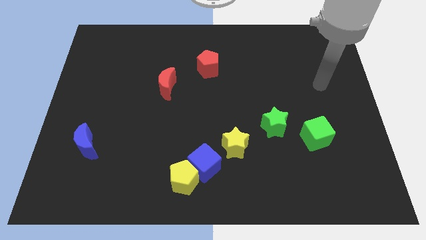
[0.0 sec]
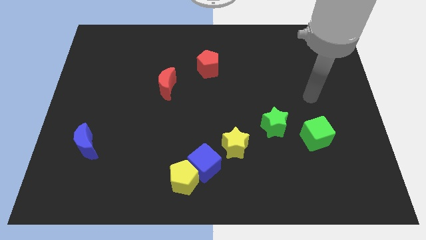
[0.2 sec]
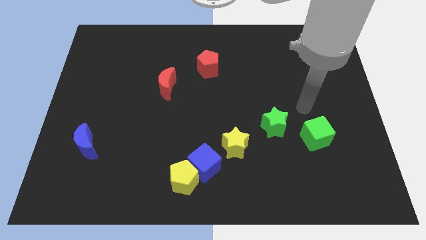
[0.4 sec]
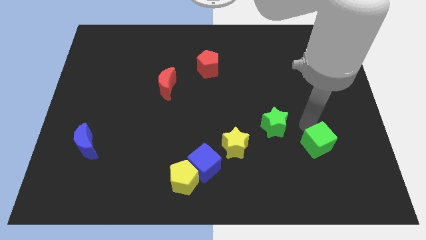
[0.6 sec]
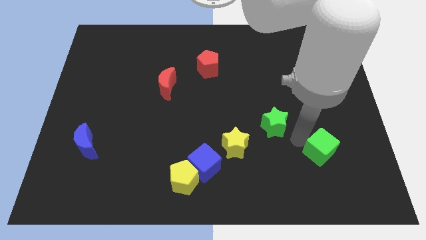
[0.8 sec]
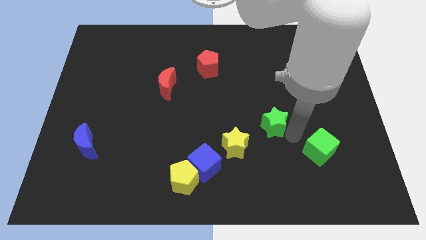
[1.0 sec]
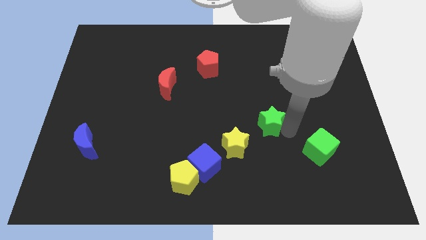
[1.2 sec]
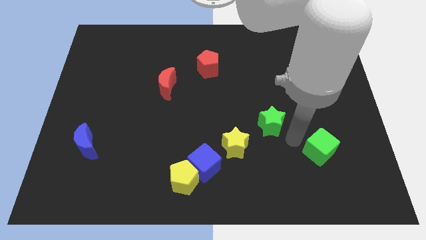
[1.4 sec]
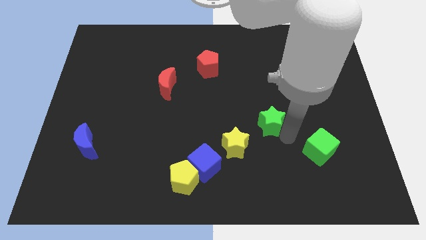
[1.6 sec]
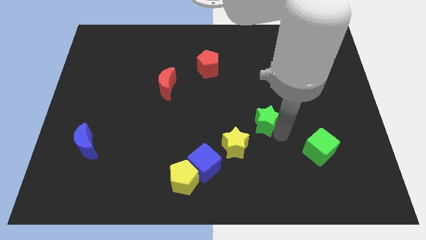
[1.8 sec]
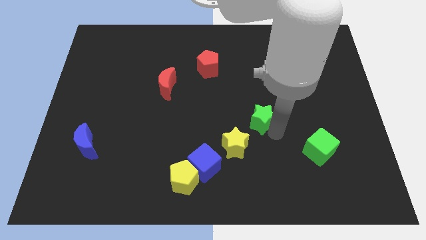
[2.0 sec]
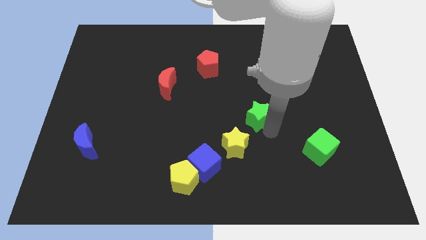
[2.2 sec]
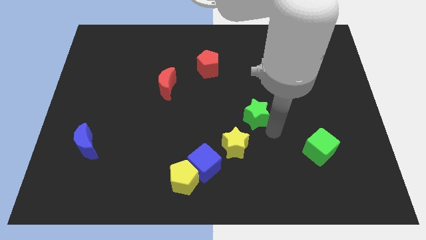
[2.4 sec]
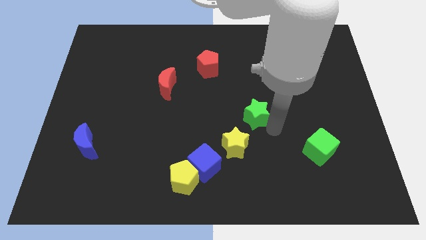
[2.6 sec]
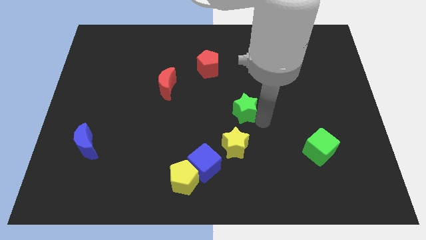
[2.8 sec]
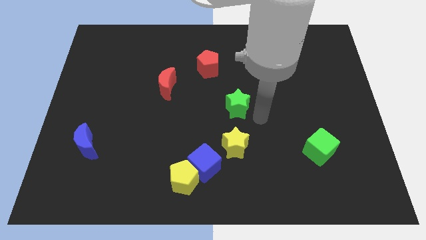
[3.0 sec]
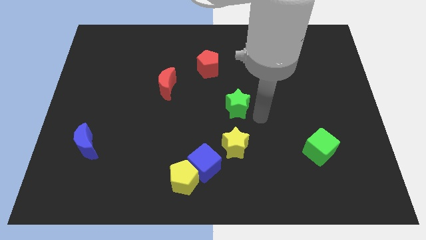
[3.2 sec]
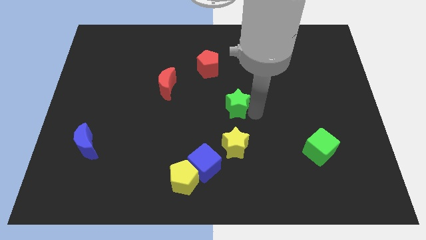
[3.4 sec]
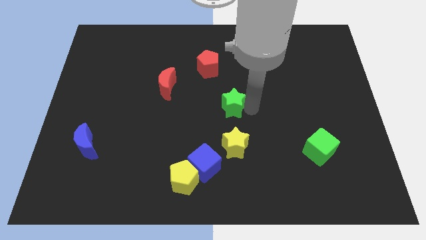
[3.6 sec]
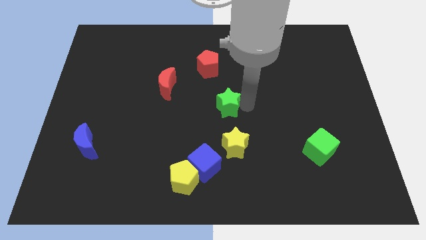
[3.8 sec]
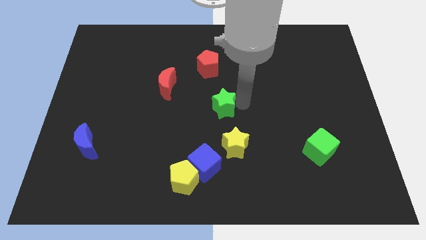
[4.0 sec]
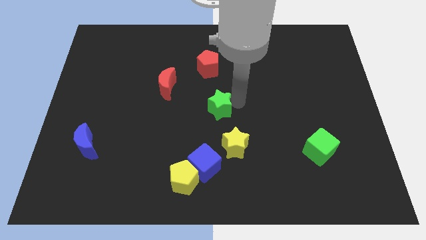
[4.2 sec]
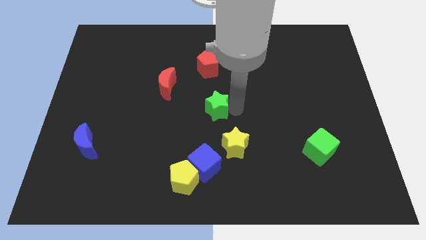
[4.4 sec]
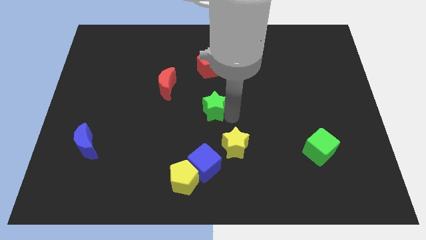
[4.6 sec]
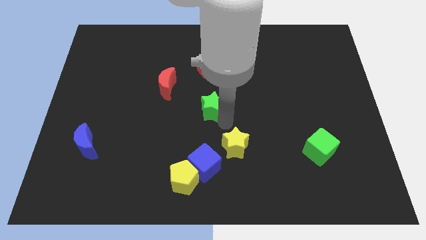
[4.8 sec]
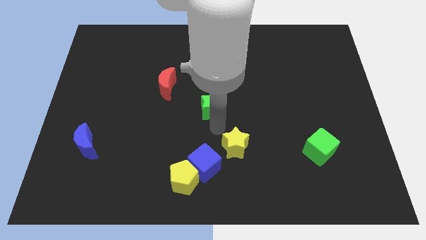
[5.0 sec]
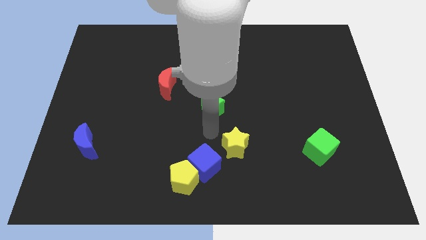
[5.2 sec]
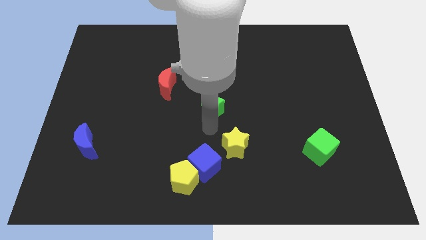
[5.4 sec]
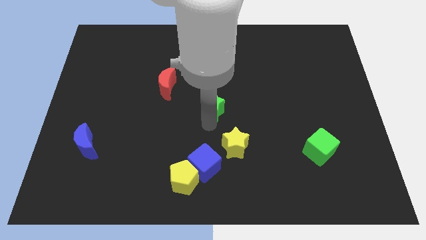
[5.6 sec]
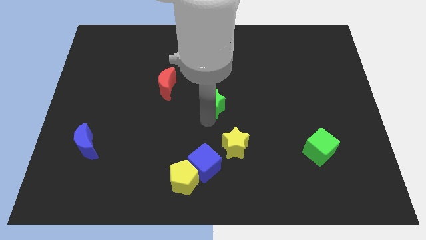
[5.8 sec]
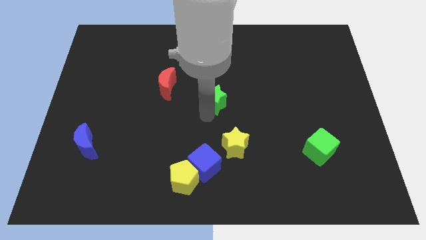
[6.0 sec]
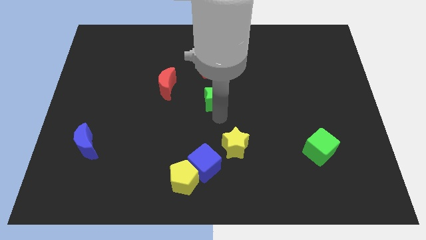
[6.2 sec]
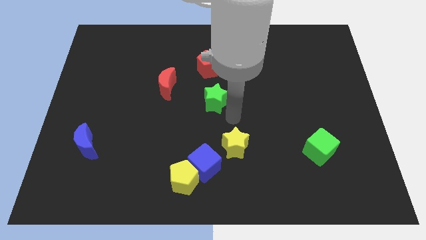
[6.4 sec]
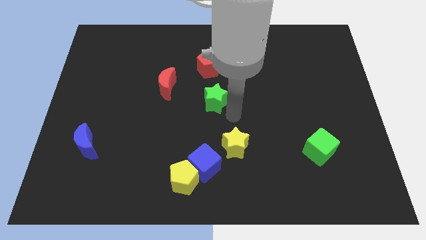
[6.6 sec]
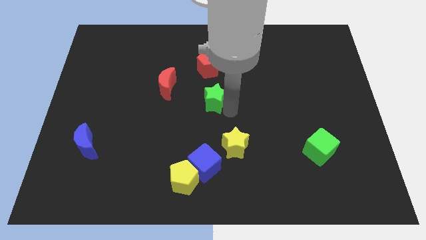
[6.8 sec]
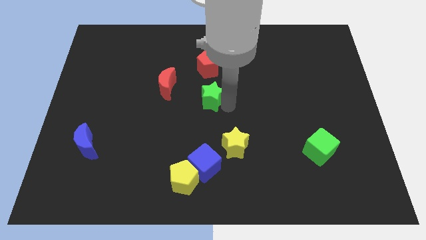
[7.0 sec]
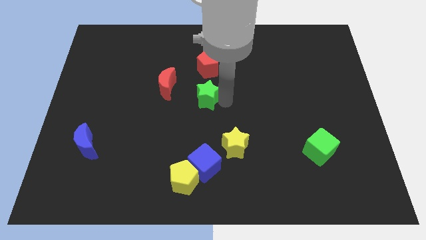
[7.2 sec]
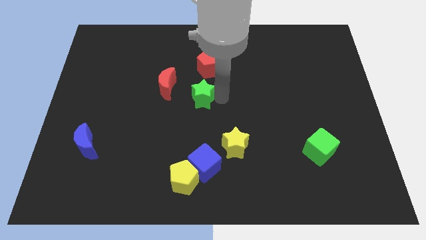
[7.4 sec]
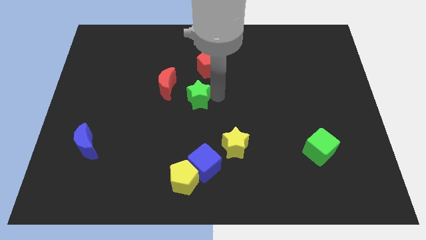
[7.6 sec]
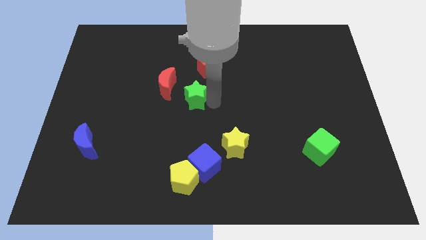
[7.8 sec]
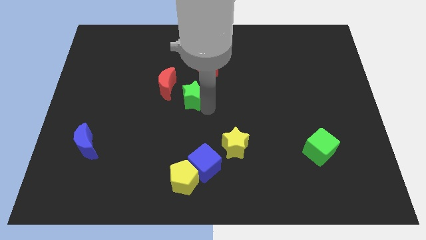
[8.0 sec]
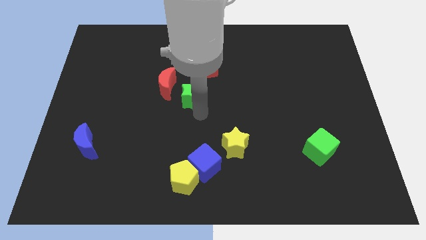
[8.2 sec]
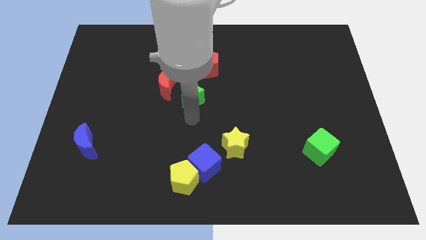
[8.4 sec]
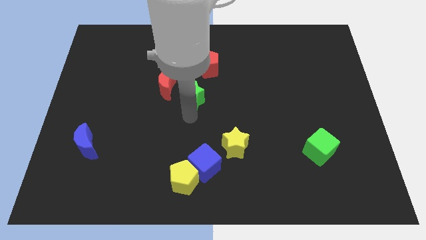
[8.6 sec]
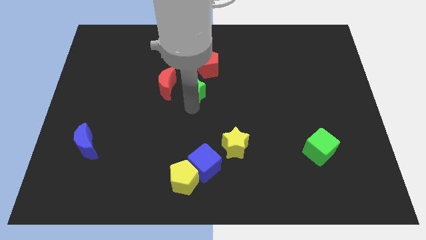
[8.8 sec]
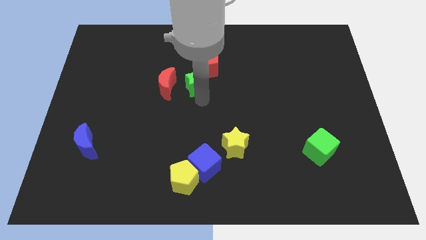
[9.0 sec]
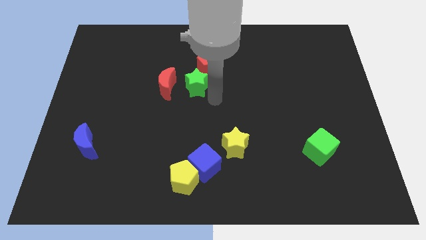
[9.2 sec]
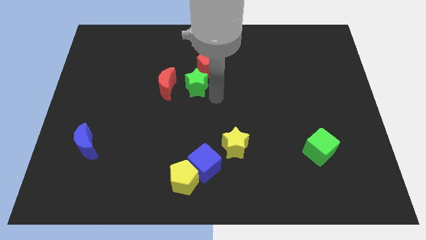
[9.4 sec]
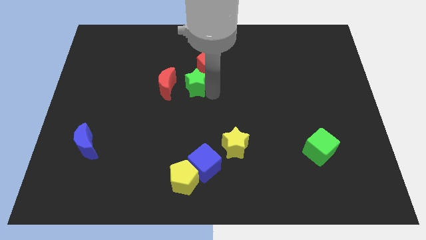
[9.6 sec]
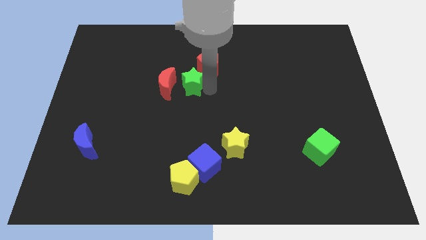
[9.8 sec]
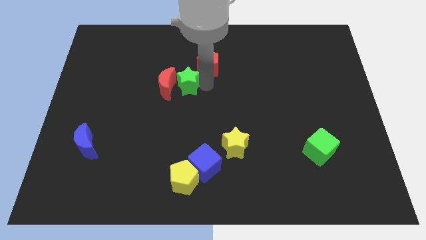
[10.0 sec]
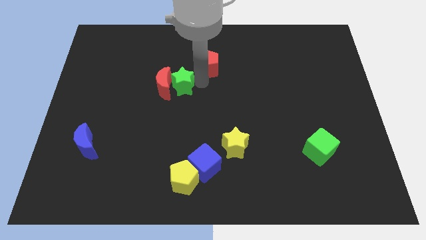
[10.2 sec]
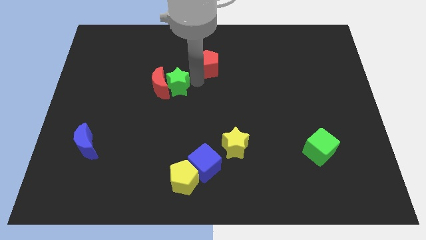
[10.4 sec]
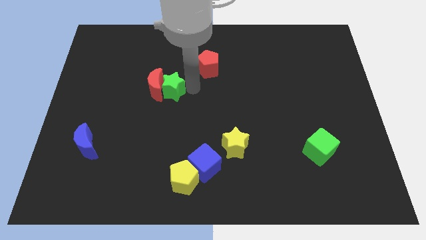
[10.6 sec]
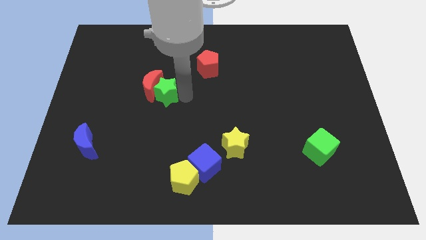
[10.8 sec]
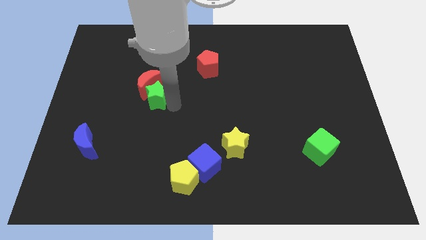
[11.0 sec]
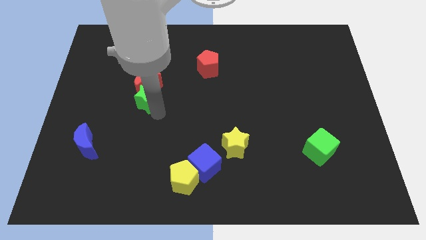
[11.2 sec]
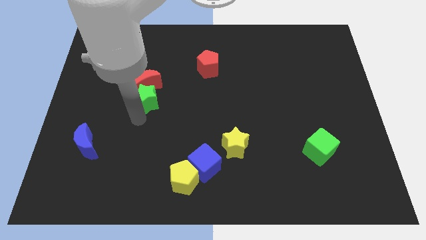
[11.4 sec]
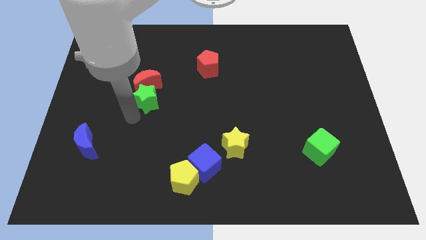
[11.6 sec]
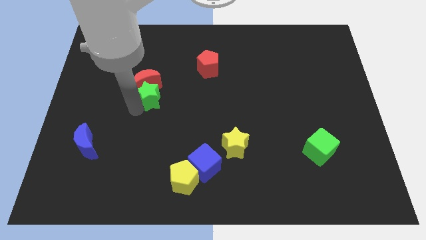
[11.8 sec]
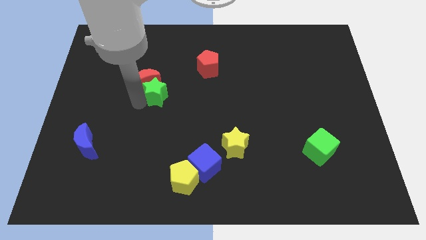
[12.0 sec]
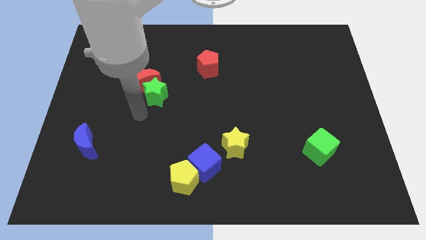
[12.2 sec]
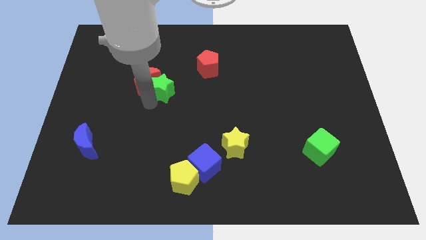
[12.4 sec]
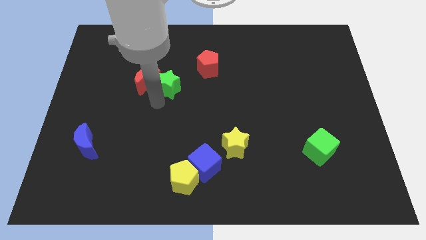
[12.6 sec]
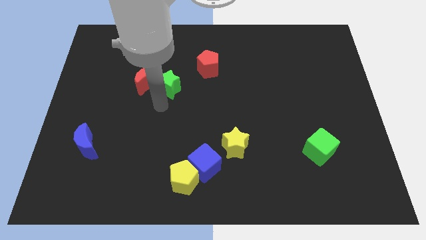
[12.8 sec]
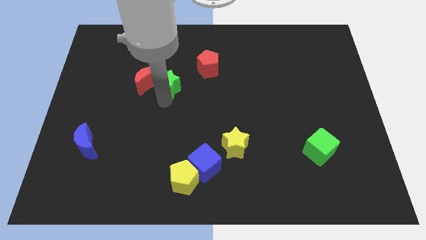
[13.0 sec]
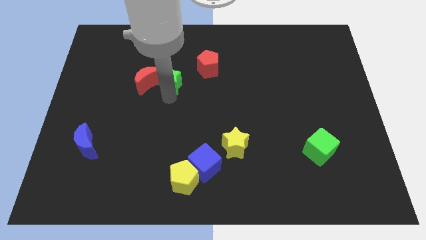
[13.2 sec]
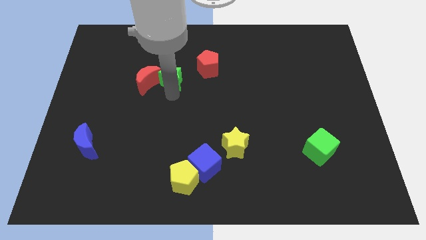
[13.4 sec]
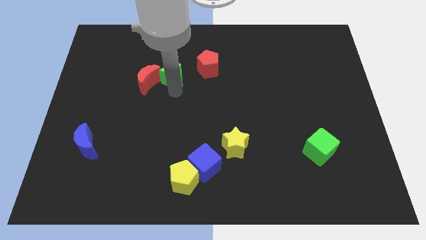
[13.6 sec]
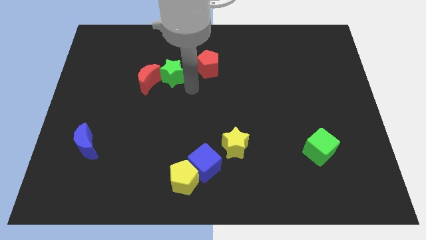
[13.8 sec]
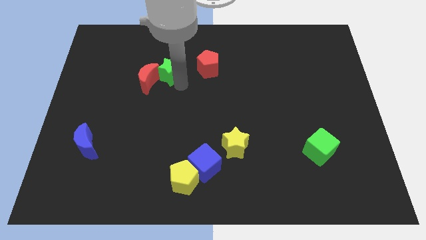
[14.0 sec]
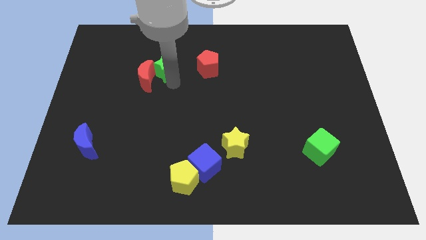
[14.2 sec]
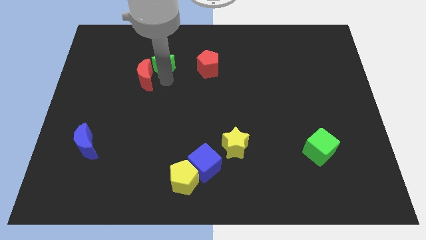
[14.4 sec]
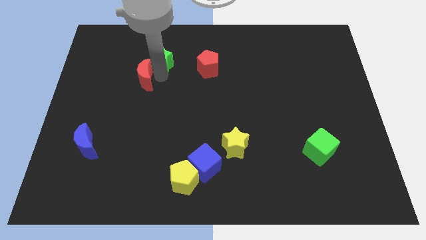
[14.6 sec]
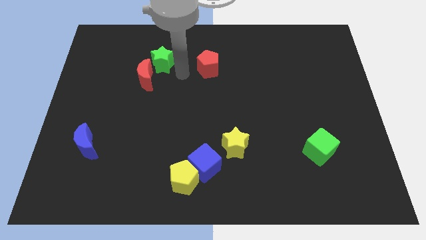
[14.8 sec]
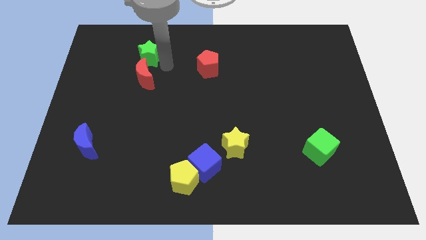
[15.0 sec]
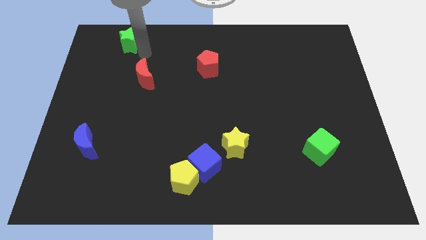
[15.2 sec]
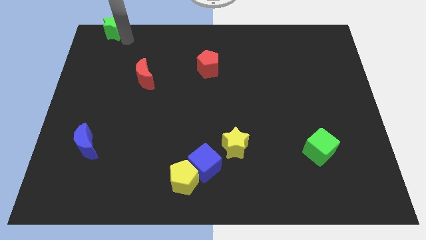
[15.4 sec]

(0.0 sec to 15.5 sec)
put the green star to the top left corner
